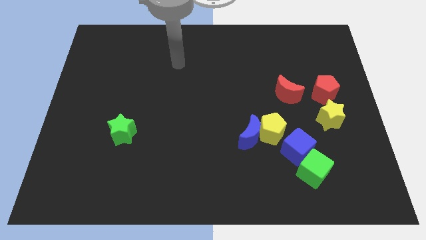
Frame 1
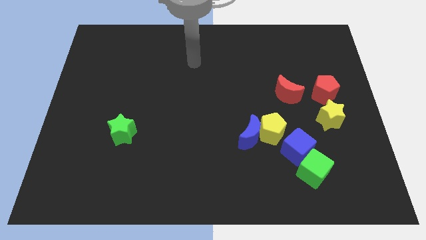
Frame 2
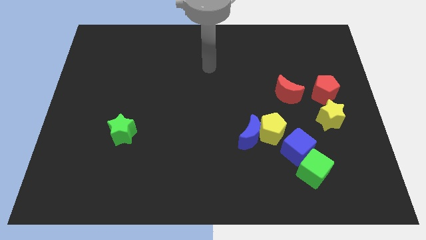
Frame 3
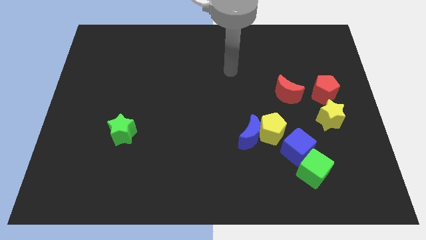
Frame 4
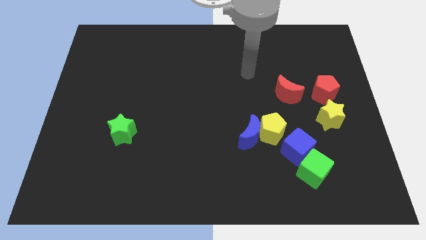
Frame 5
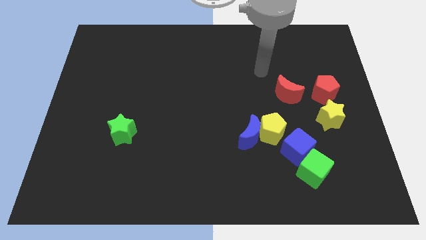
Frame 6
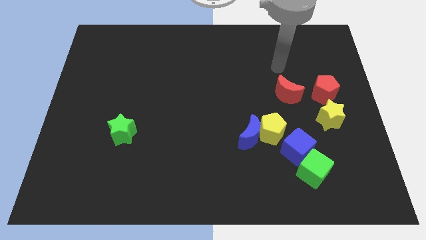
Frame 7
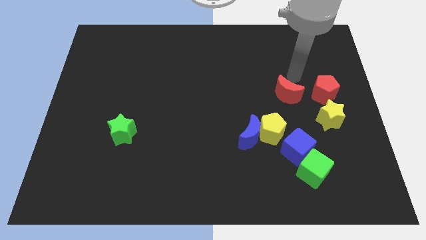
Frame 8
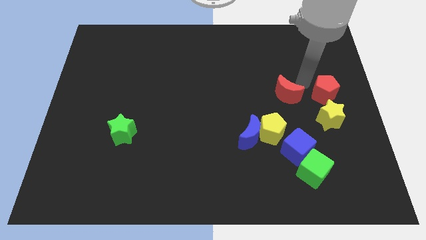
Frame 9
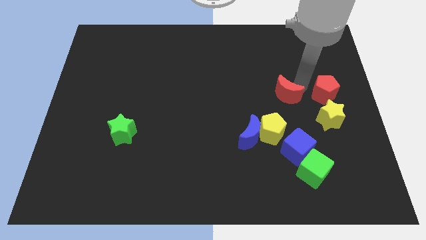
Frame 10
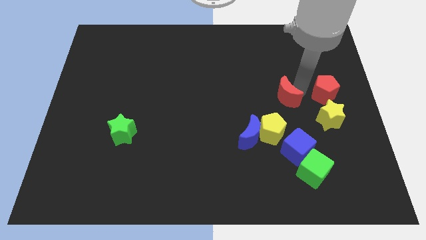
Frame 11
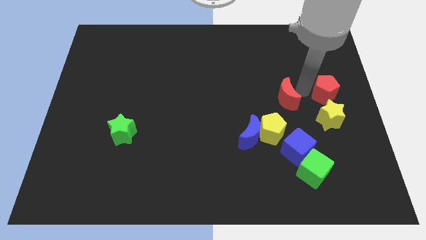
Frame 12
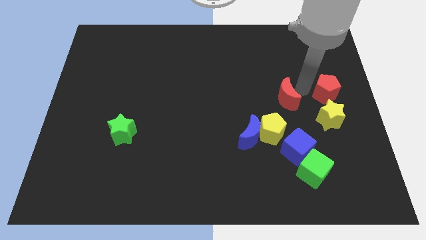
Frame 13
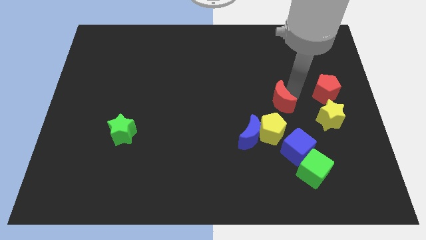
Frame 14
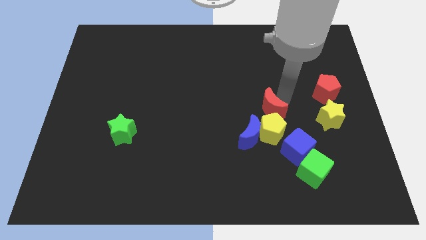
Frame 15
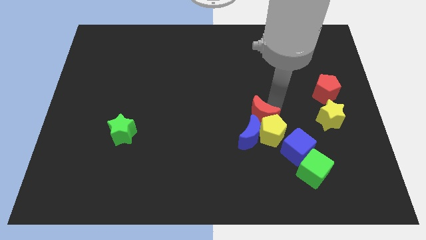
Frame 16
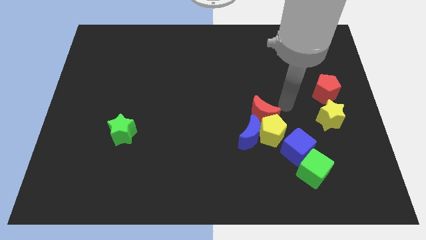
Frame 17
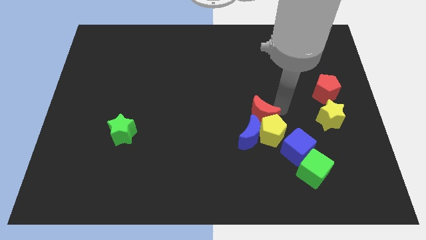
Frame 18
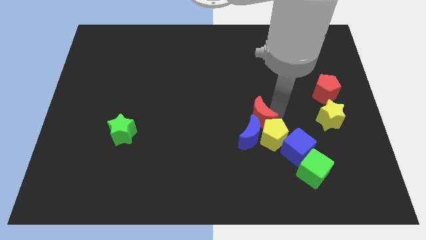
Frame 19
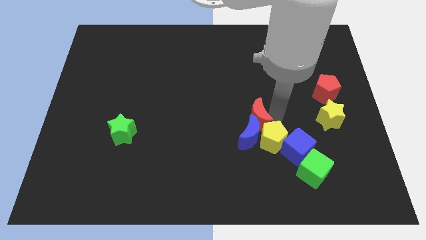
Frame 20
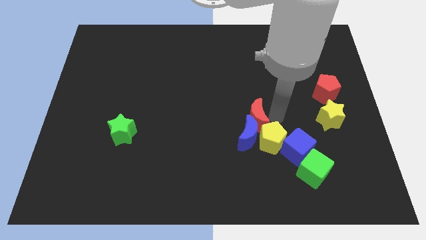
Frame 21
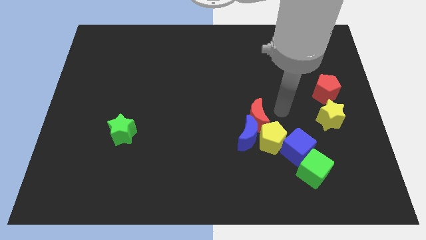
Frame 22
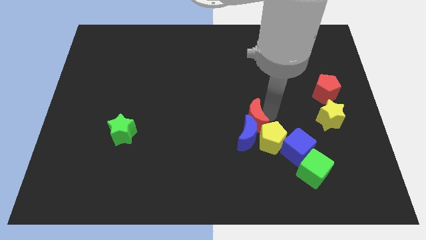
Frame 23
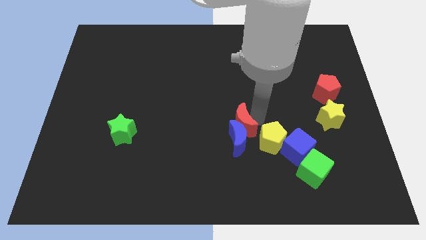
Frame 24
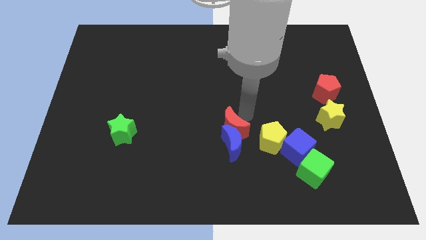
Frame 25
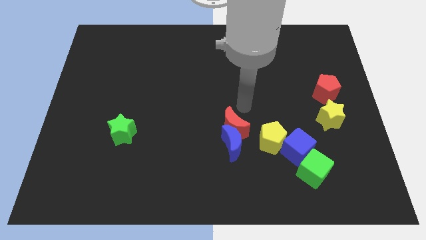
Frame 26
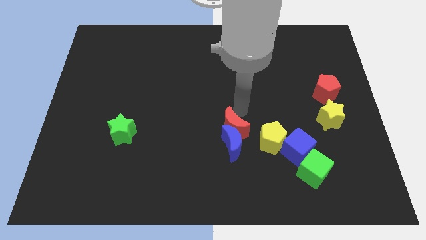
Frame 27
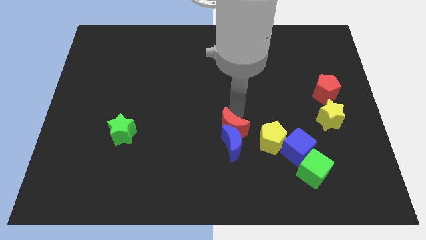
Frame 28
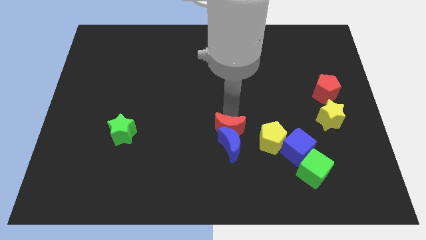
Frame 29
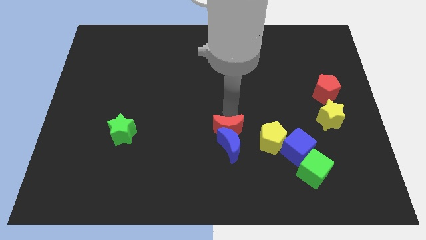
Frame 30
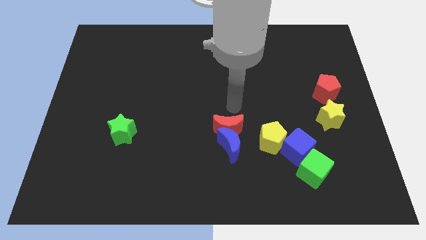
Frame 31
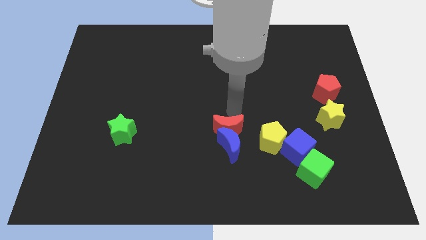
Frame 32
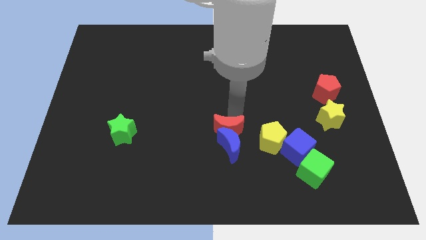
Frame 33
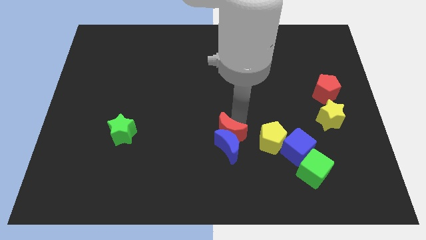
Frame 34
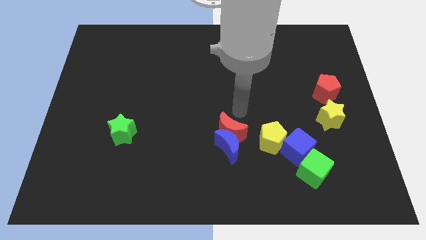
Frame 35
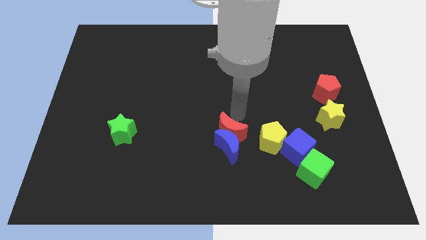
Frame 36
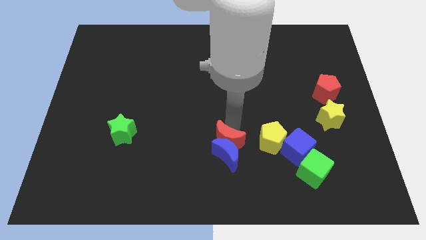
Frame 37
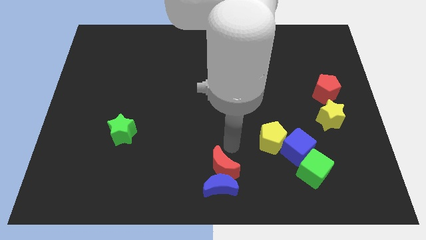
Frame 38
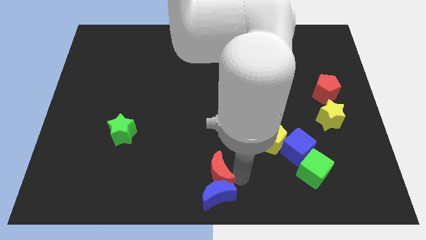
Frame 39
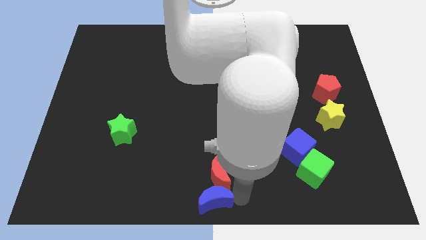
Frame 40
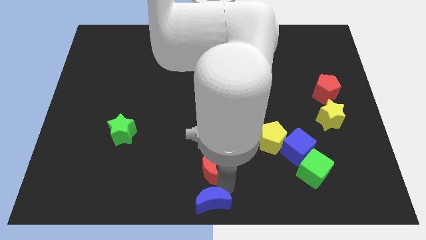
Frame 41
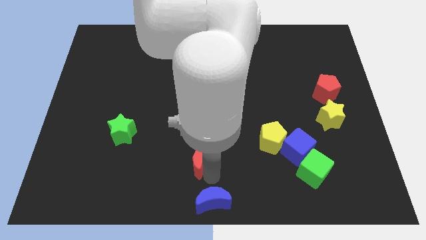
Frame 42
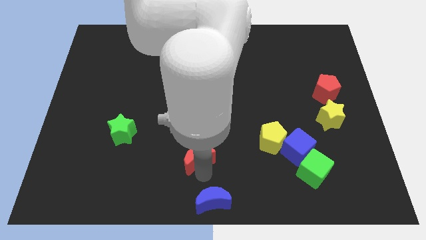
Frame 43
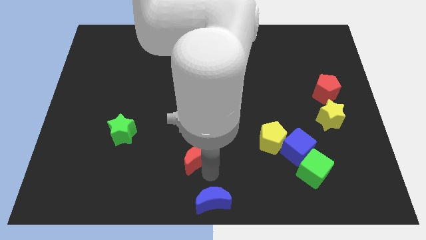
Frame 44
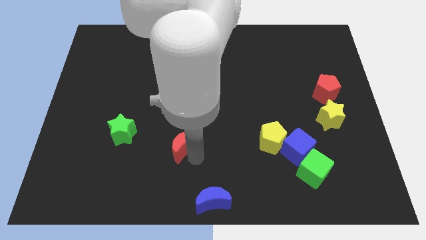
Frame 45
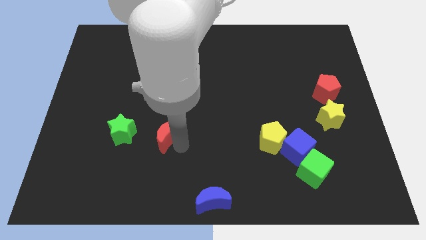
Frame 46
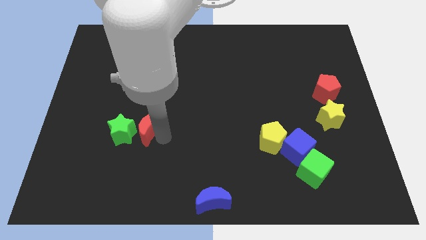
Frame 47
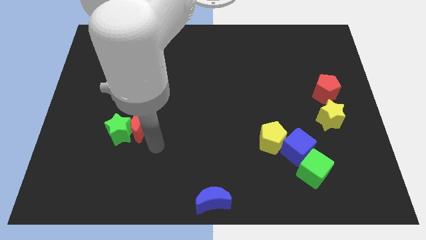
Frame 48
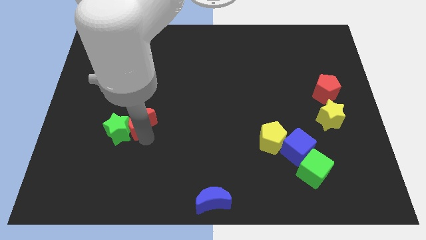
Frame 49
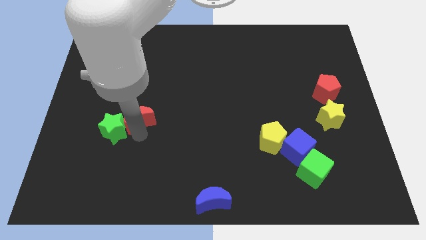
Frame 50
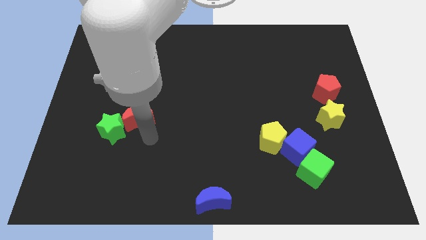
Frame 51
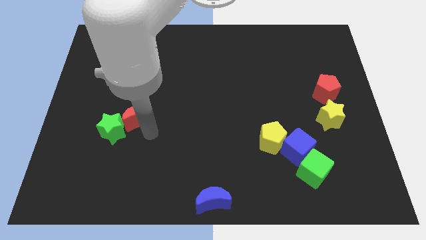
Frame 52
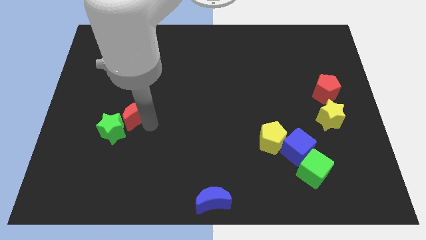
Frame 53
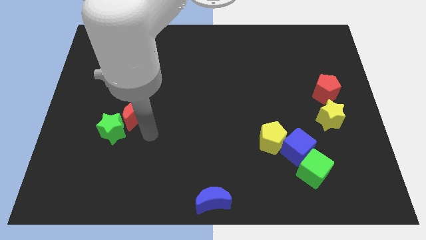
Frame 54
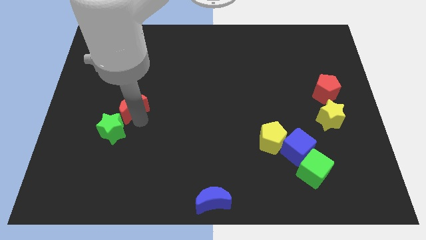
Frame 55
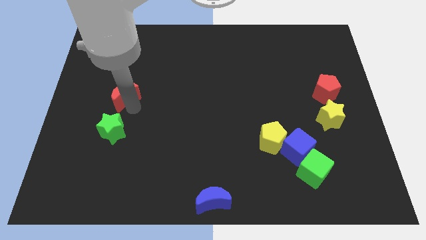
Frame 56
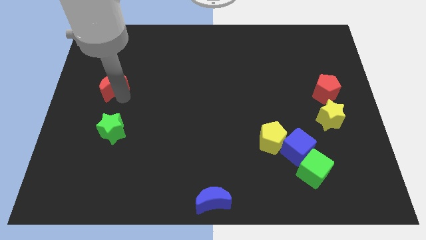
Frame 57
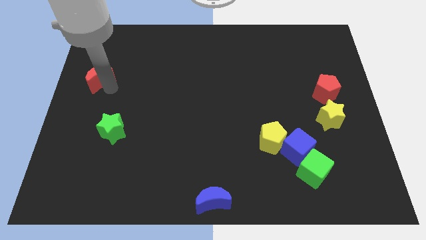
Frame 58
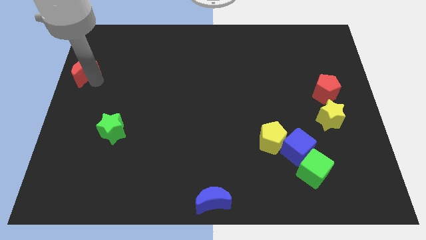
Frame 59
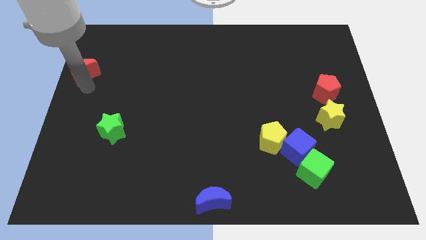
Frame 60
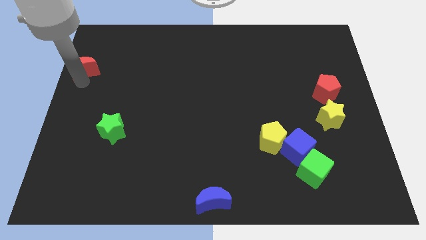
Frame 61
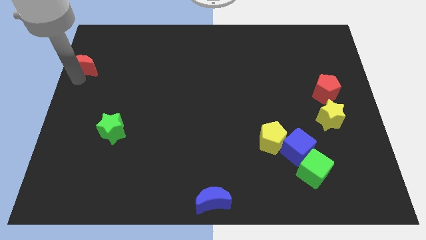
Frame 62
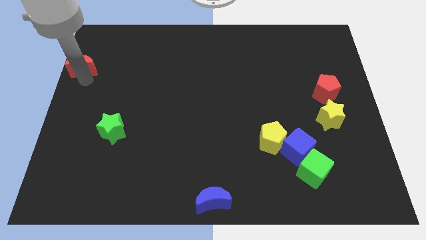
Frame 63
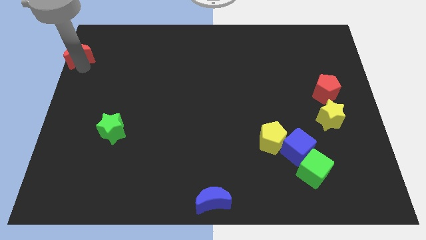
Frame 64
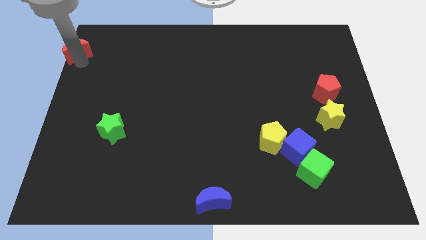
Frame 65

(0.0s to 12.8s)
push the red moon to the upper left corner
